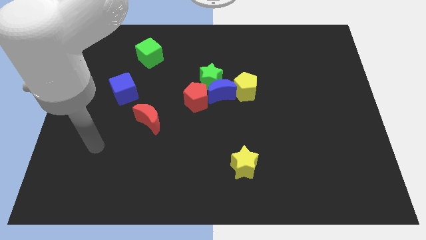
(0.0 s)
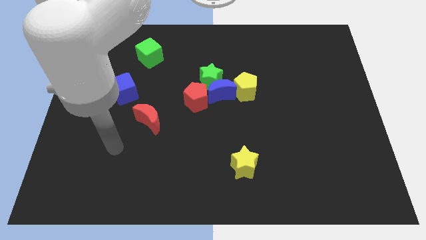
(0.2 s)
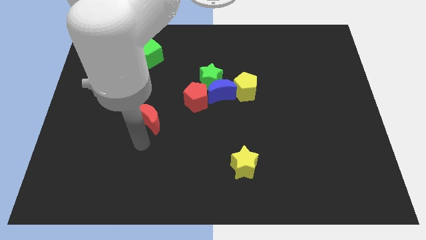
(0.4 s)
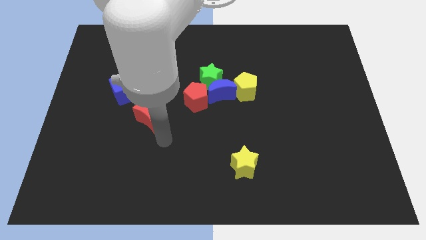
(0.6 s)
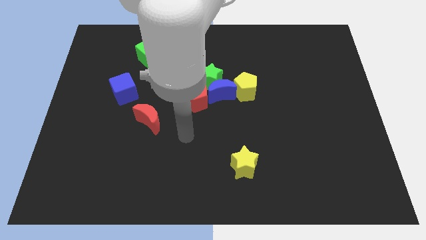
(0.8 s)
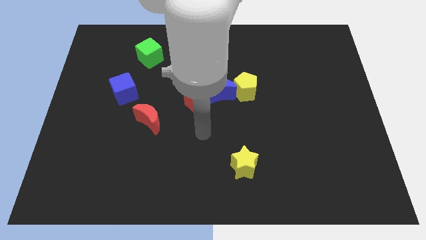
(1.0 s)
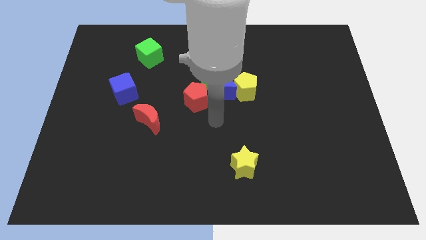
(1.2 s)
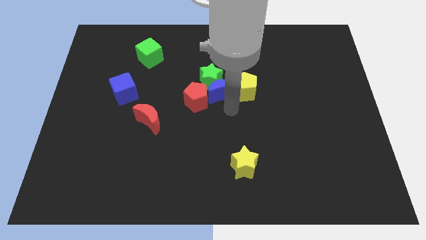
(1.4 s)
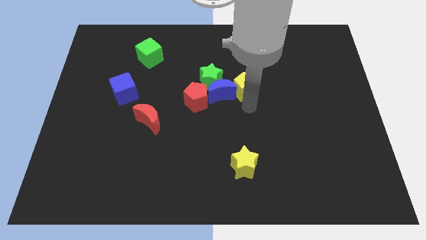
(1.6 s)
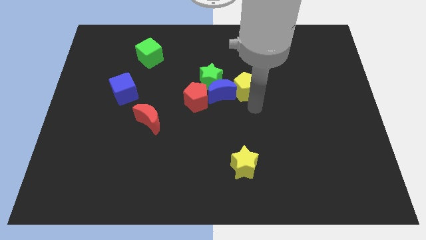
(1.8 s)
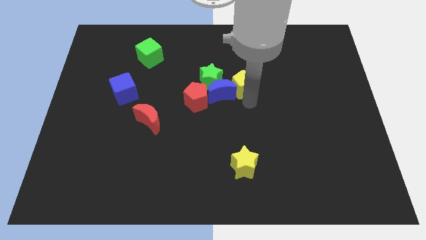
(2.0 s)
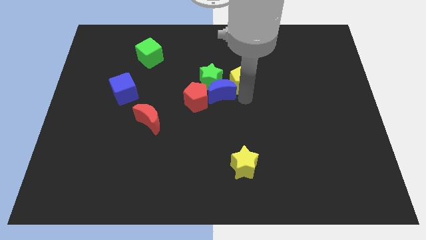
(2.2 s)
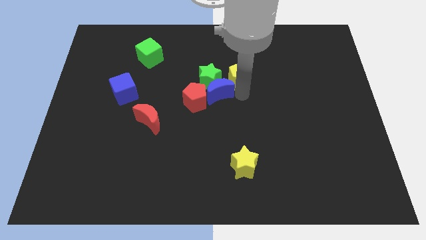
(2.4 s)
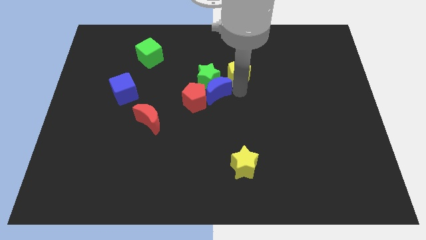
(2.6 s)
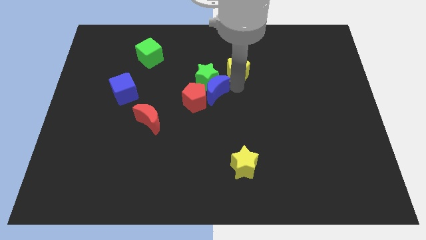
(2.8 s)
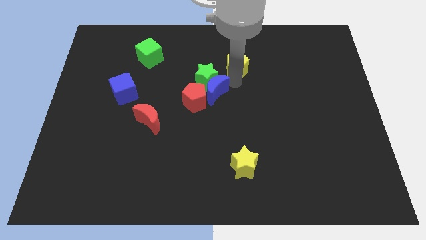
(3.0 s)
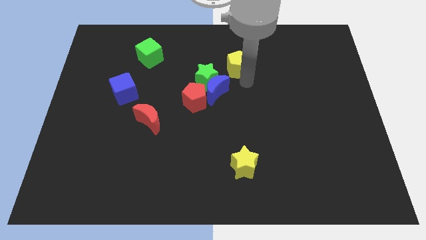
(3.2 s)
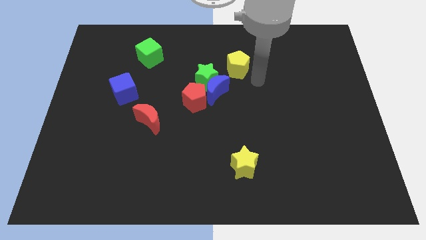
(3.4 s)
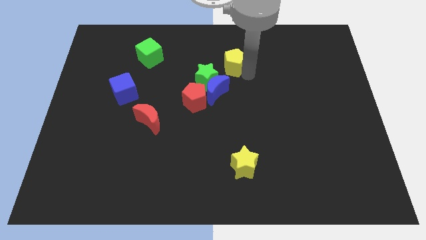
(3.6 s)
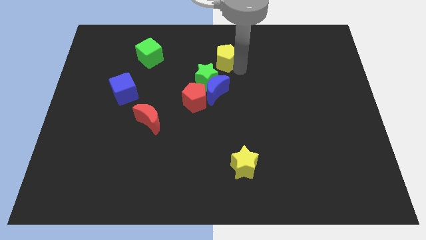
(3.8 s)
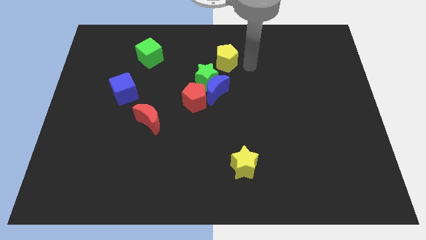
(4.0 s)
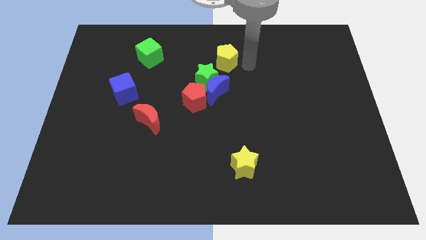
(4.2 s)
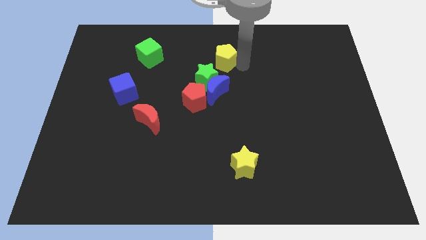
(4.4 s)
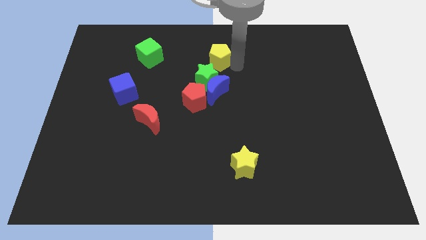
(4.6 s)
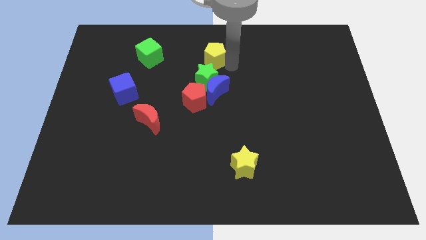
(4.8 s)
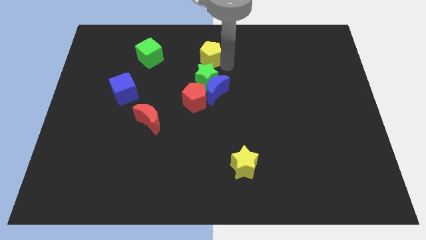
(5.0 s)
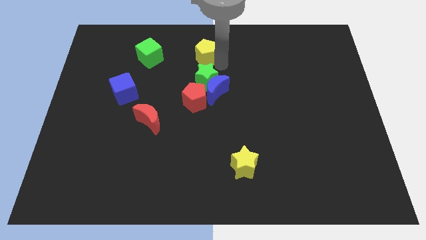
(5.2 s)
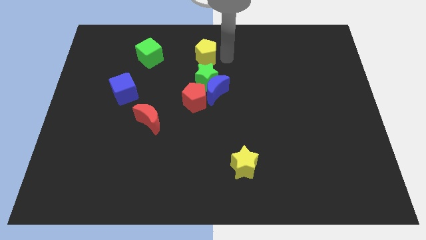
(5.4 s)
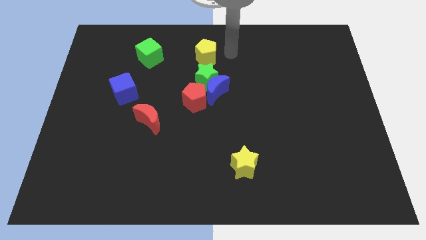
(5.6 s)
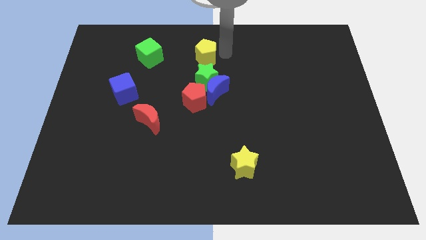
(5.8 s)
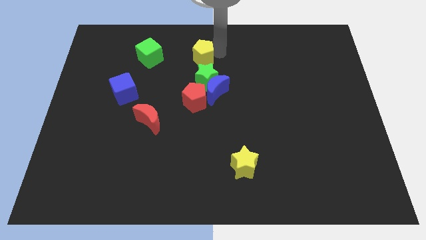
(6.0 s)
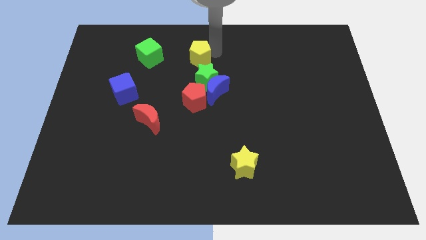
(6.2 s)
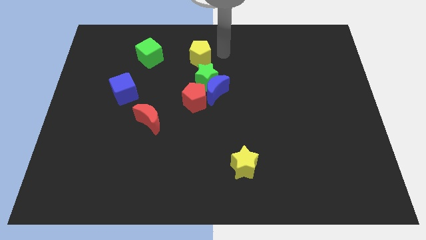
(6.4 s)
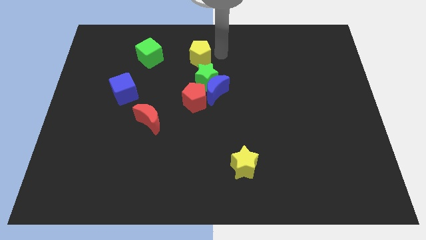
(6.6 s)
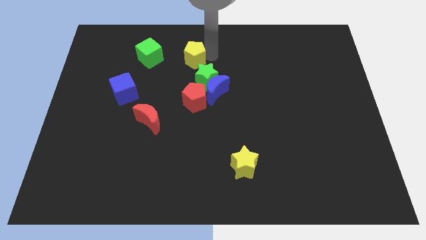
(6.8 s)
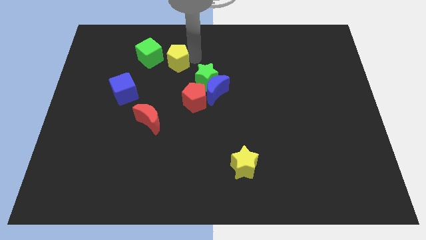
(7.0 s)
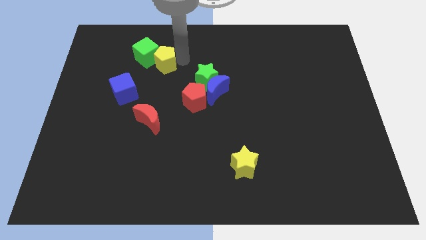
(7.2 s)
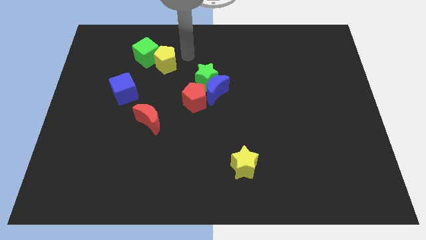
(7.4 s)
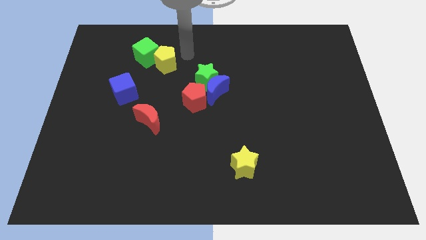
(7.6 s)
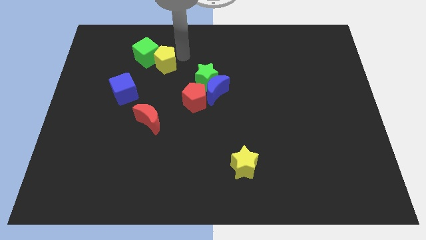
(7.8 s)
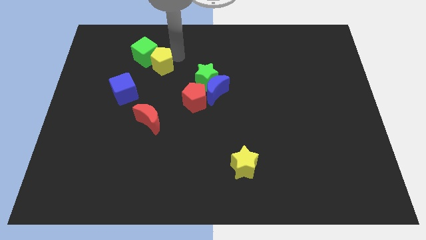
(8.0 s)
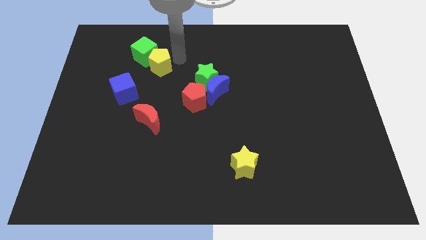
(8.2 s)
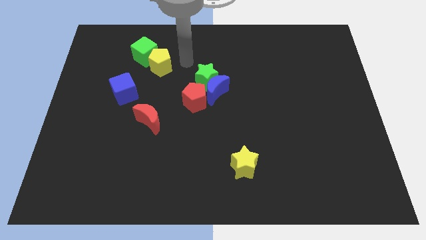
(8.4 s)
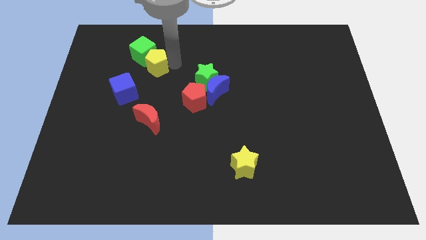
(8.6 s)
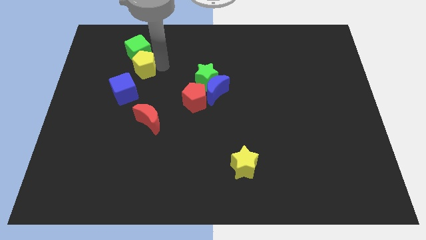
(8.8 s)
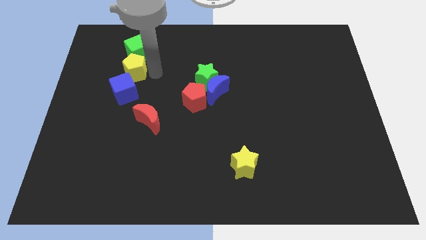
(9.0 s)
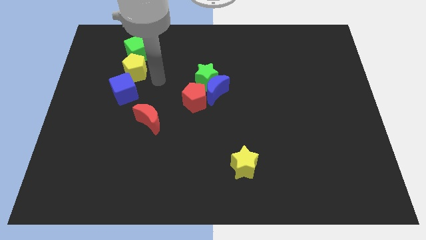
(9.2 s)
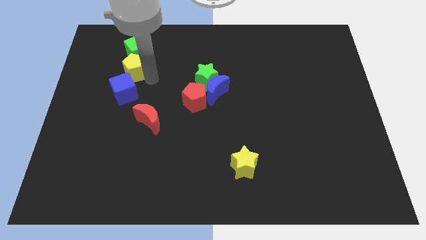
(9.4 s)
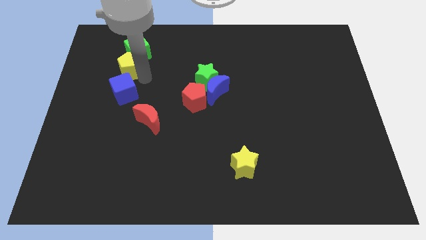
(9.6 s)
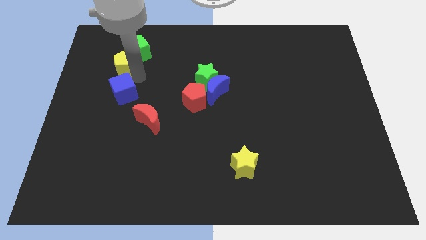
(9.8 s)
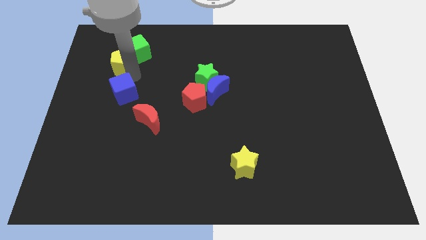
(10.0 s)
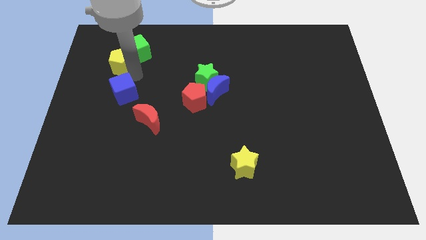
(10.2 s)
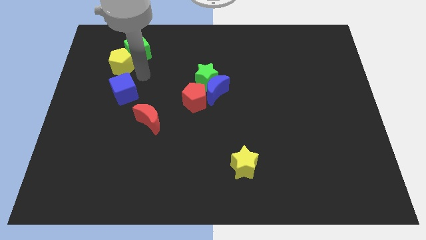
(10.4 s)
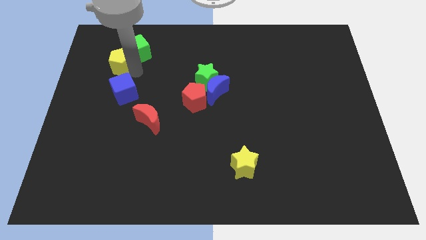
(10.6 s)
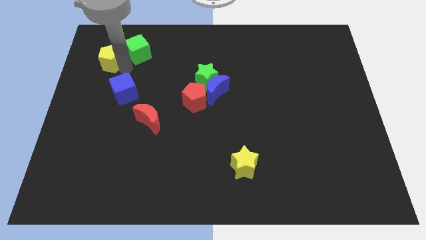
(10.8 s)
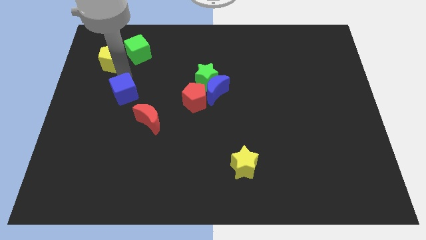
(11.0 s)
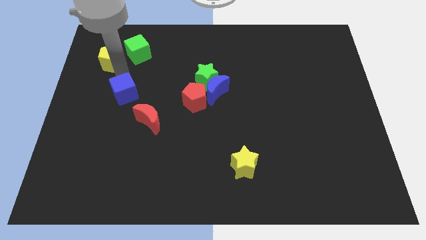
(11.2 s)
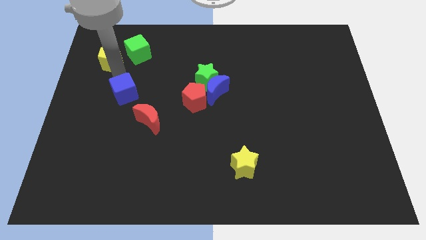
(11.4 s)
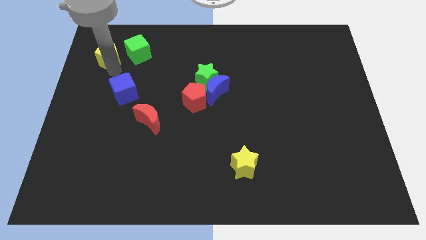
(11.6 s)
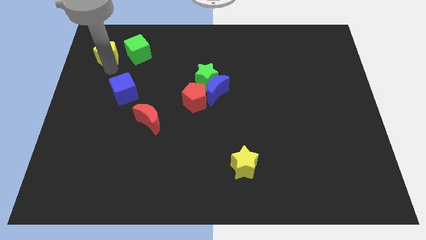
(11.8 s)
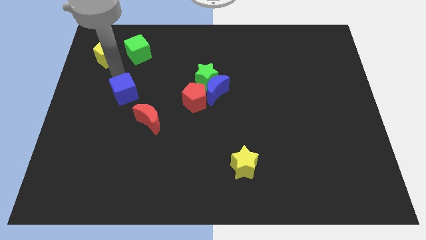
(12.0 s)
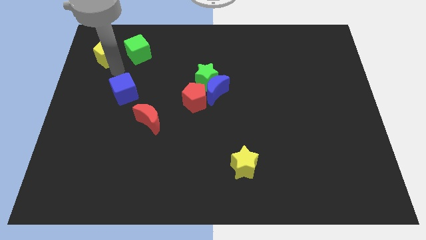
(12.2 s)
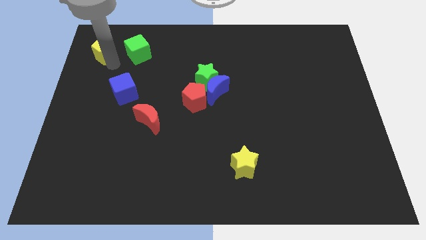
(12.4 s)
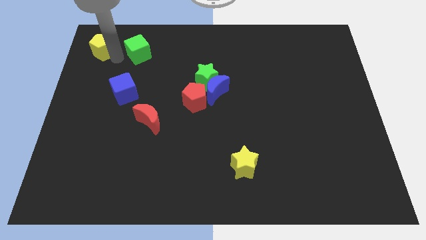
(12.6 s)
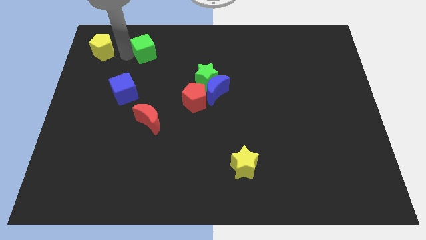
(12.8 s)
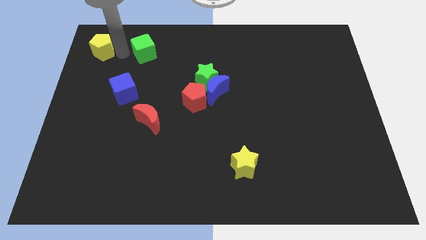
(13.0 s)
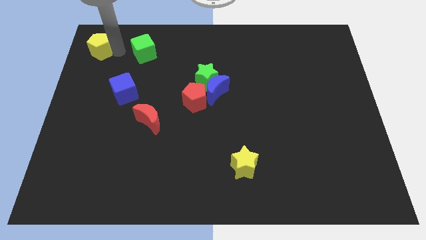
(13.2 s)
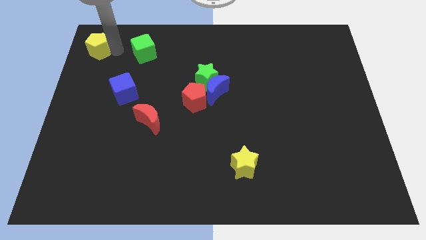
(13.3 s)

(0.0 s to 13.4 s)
slide the yellow pentagon to the top left corner
